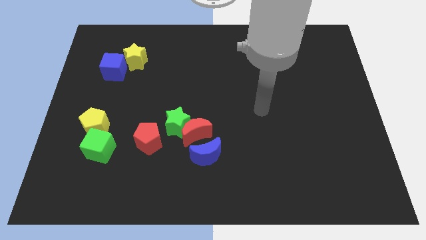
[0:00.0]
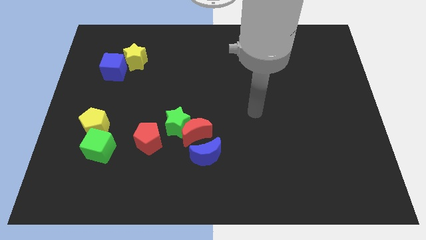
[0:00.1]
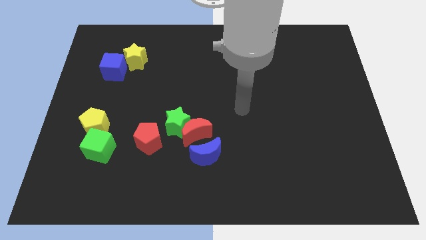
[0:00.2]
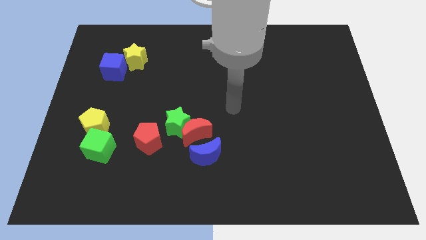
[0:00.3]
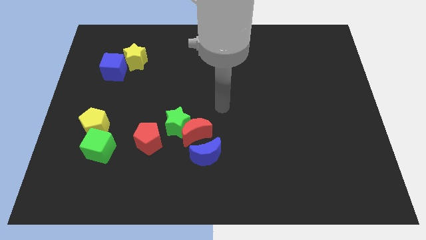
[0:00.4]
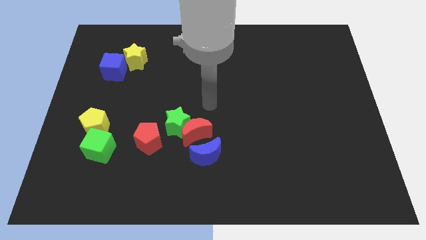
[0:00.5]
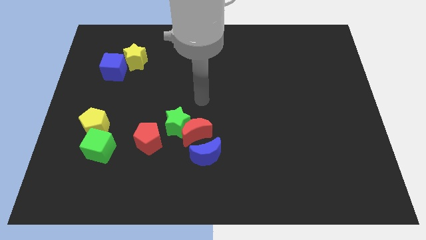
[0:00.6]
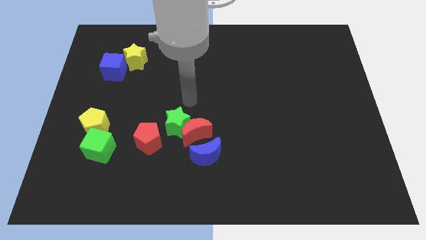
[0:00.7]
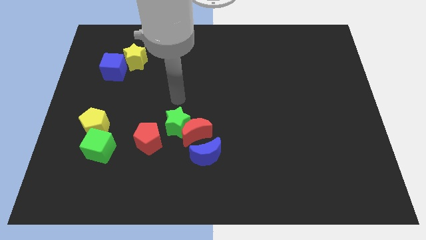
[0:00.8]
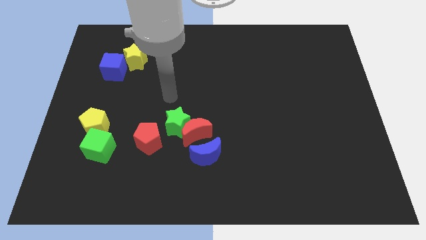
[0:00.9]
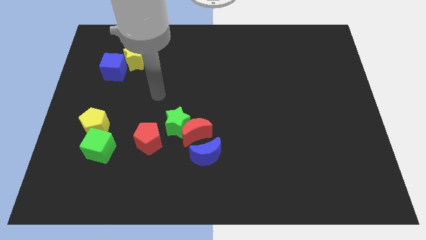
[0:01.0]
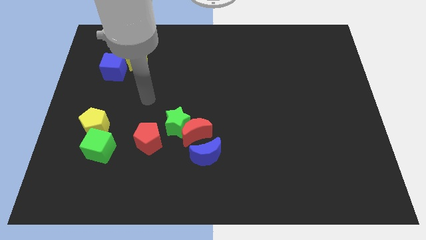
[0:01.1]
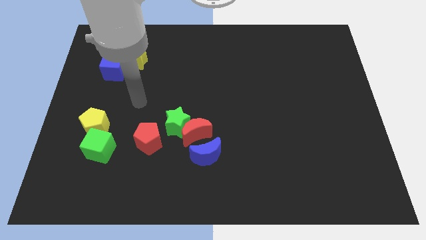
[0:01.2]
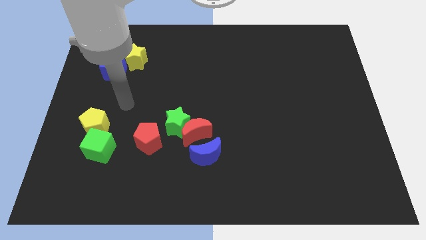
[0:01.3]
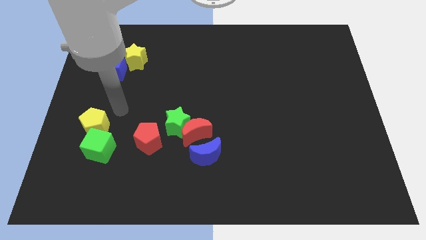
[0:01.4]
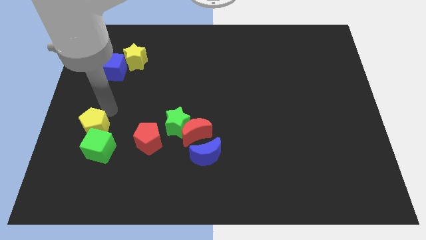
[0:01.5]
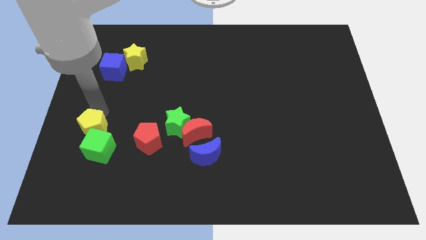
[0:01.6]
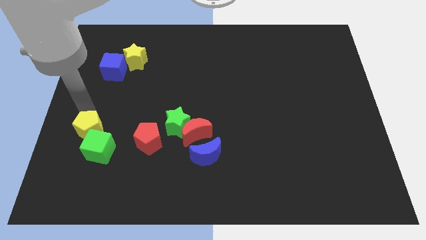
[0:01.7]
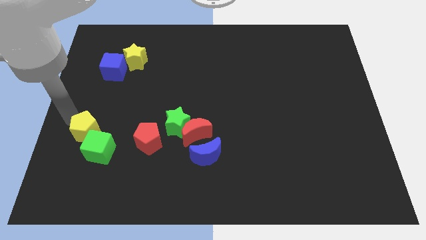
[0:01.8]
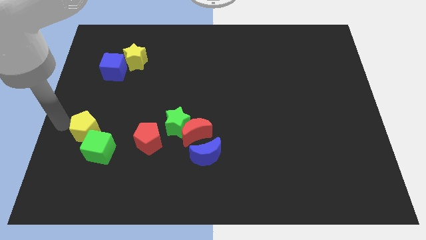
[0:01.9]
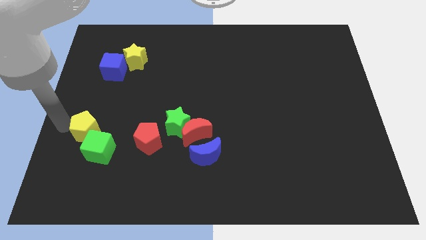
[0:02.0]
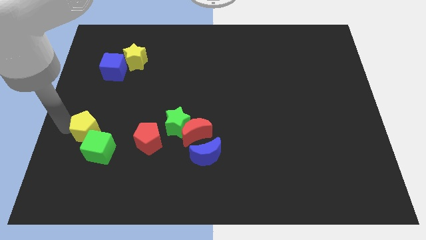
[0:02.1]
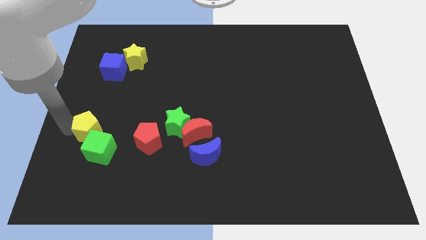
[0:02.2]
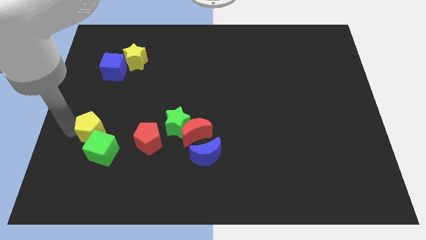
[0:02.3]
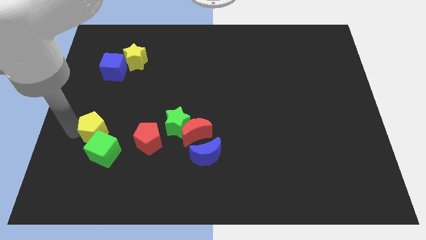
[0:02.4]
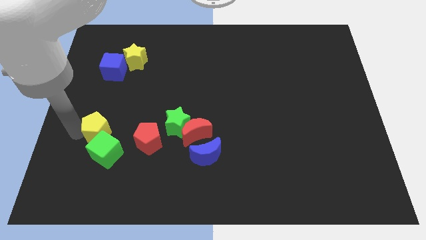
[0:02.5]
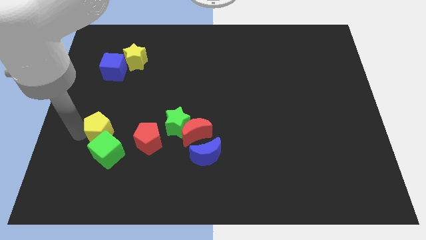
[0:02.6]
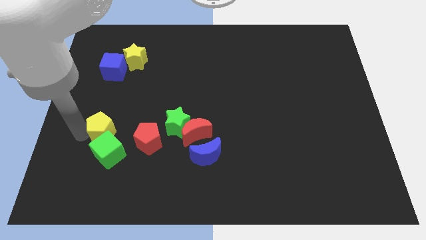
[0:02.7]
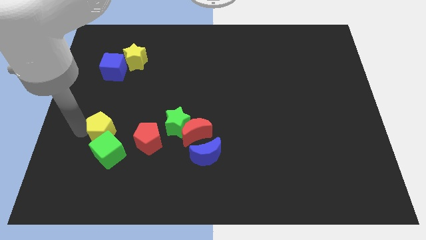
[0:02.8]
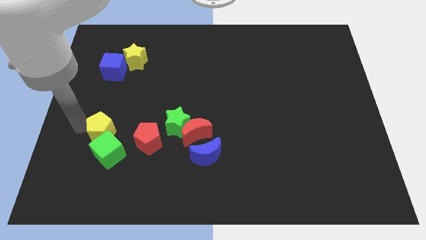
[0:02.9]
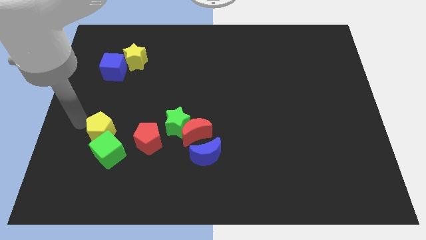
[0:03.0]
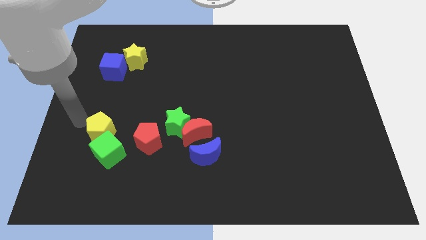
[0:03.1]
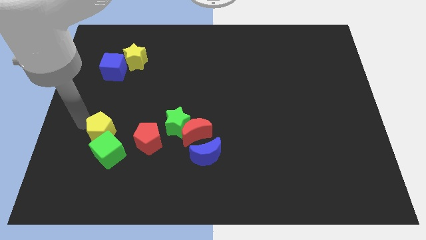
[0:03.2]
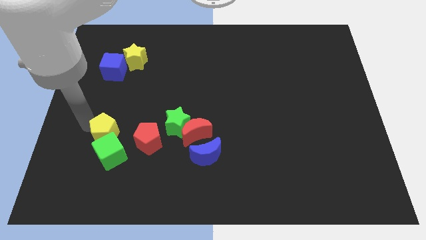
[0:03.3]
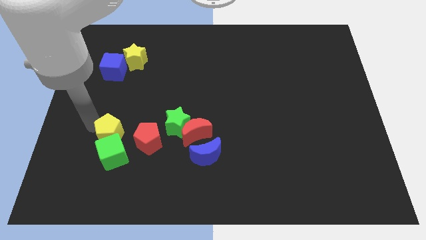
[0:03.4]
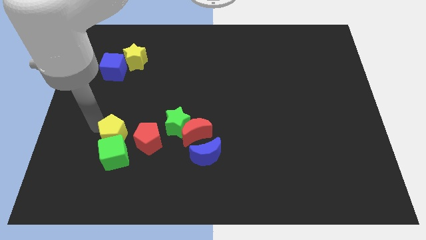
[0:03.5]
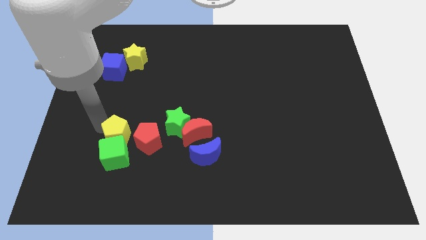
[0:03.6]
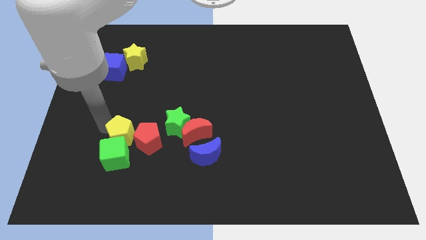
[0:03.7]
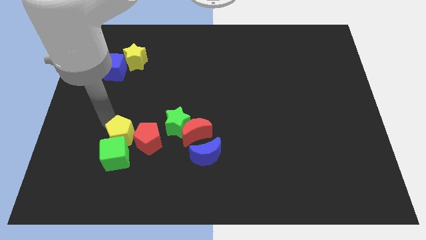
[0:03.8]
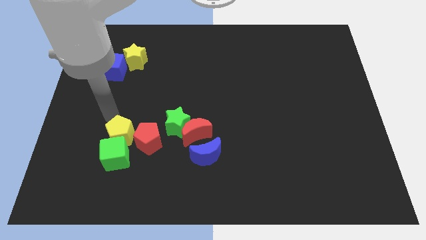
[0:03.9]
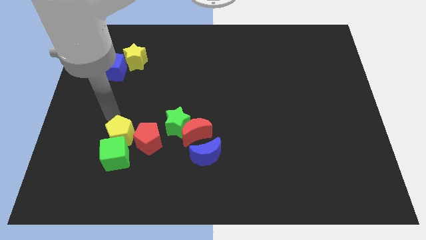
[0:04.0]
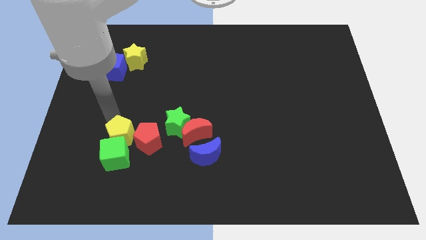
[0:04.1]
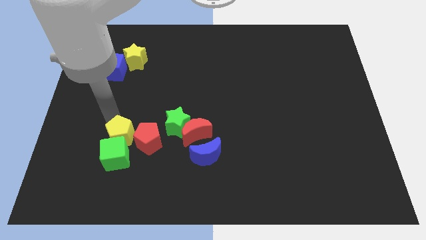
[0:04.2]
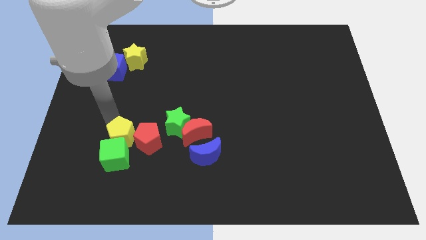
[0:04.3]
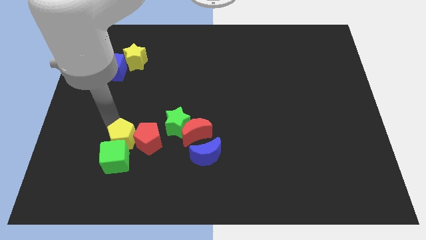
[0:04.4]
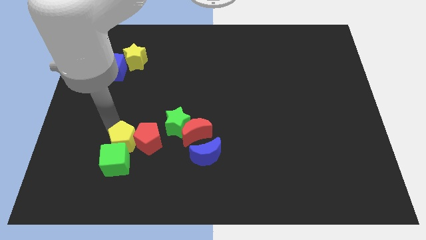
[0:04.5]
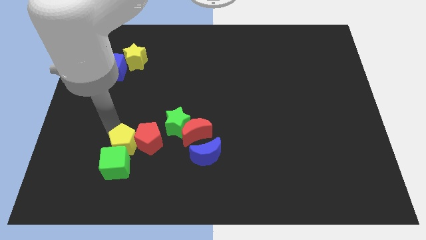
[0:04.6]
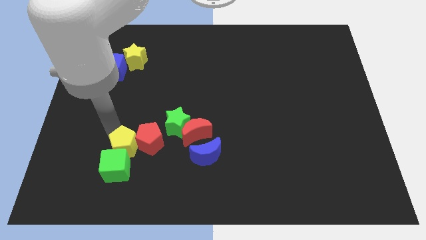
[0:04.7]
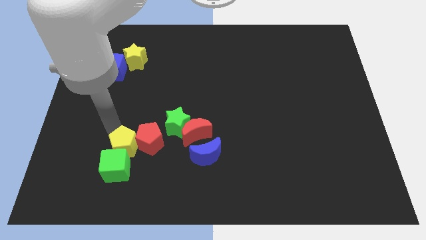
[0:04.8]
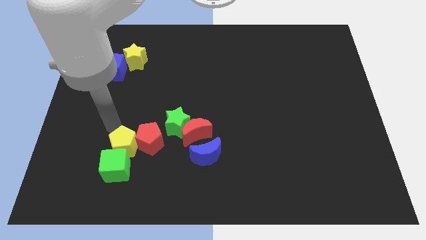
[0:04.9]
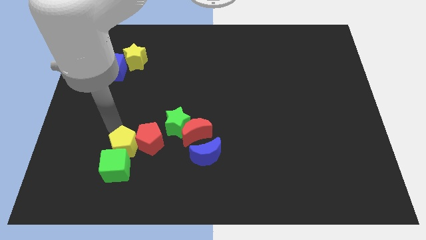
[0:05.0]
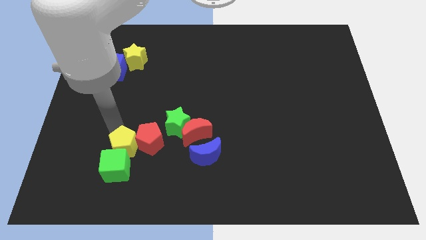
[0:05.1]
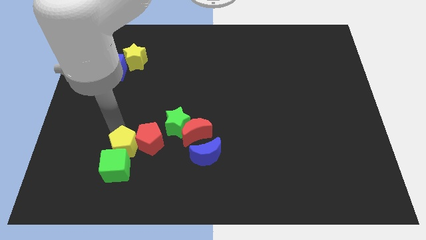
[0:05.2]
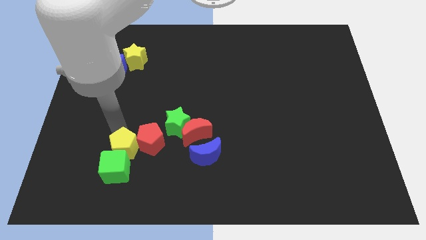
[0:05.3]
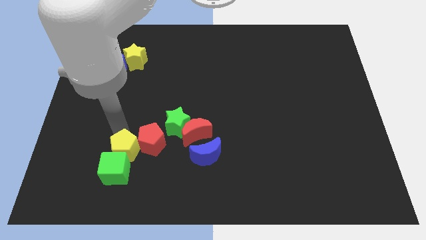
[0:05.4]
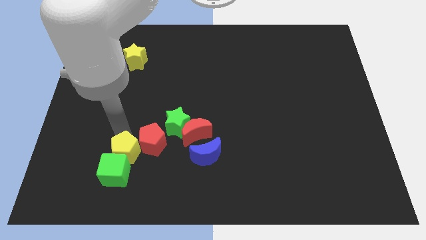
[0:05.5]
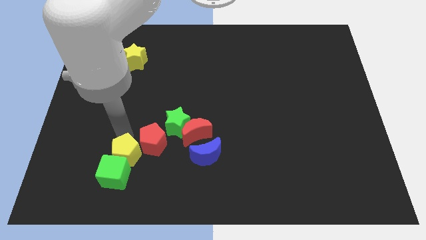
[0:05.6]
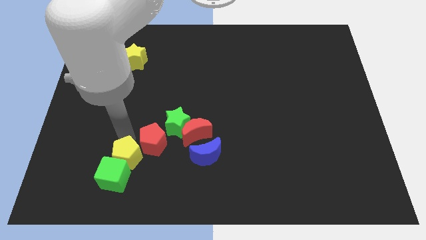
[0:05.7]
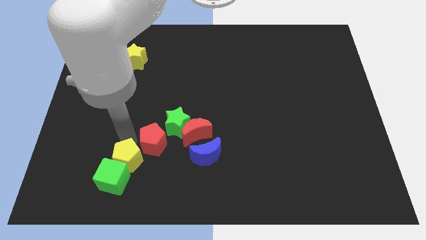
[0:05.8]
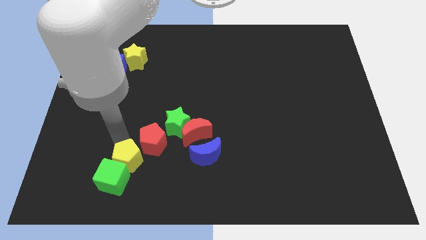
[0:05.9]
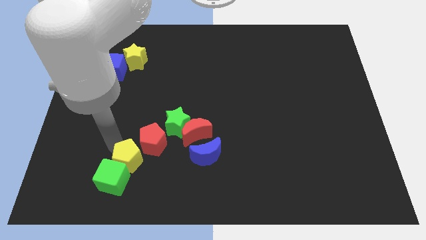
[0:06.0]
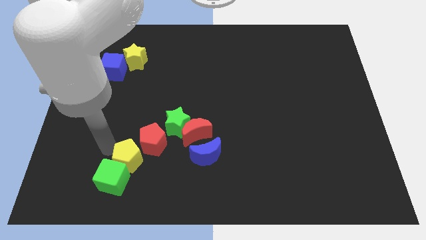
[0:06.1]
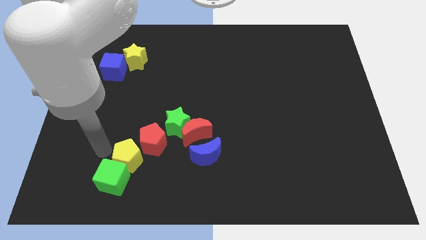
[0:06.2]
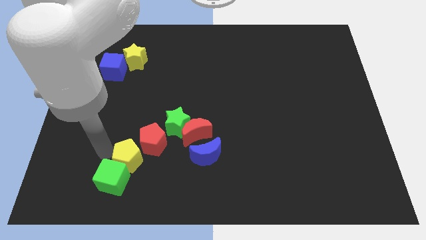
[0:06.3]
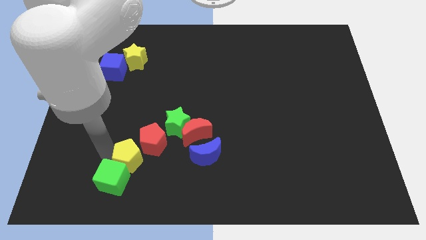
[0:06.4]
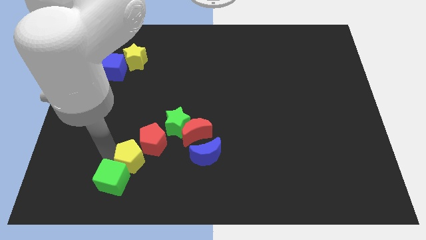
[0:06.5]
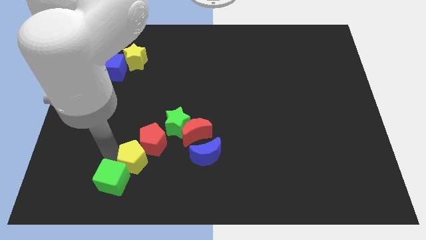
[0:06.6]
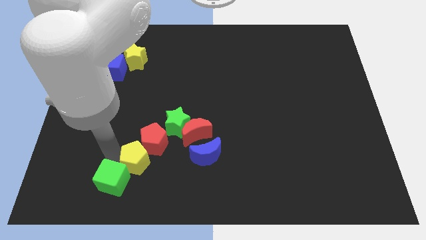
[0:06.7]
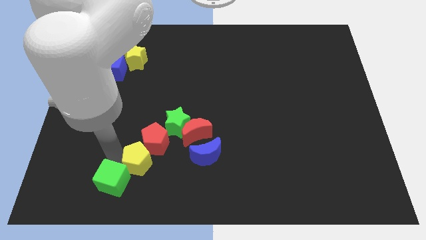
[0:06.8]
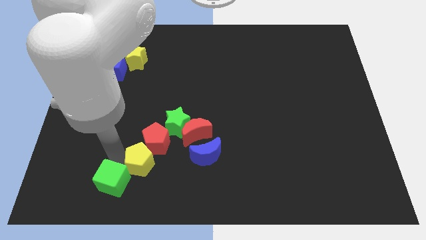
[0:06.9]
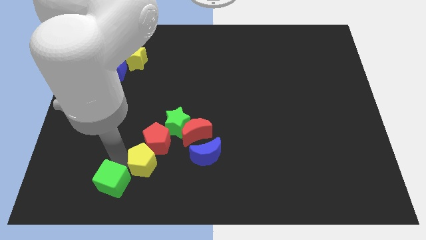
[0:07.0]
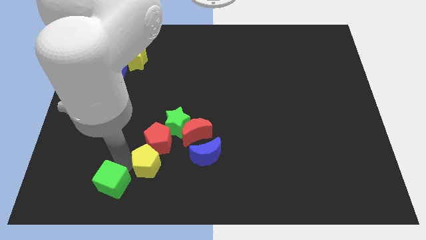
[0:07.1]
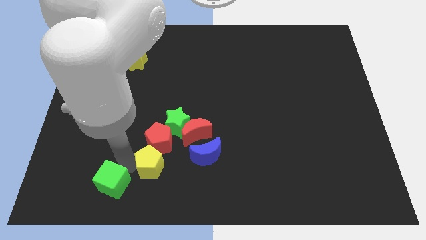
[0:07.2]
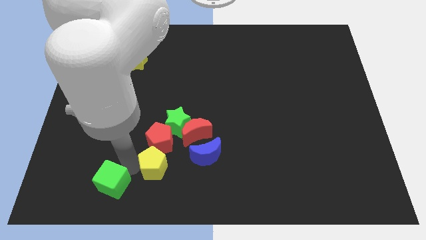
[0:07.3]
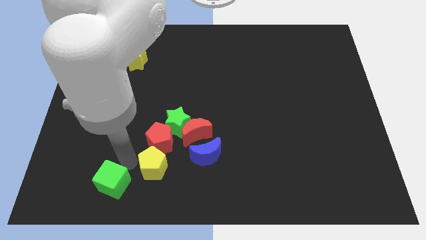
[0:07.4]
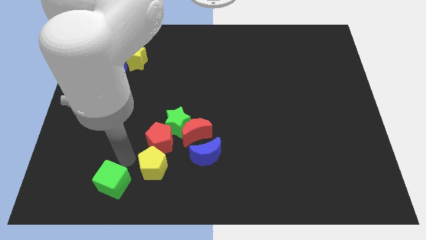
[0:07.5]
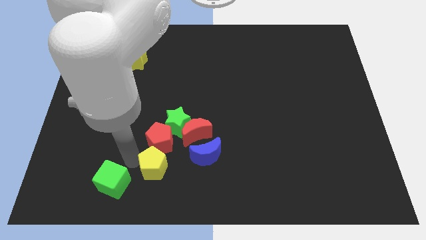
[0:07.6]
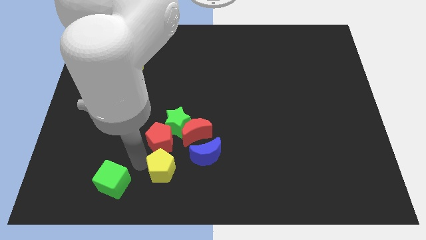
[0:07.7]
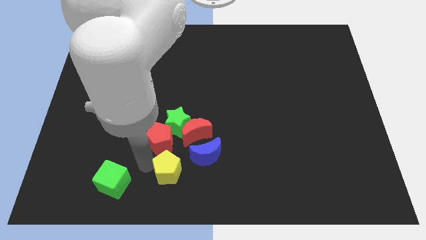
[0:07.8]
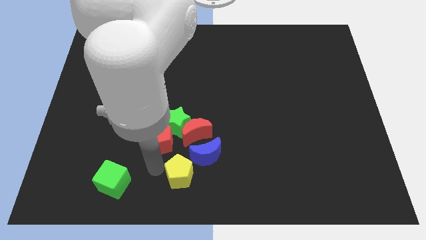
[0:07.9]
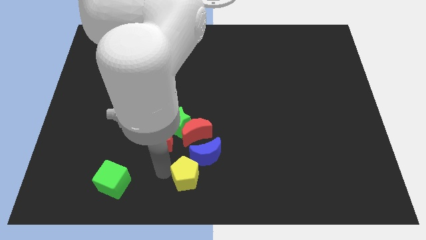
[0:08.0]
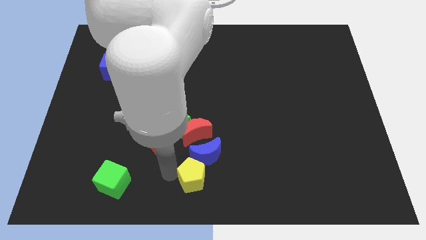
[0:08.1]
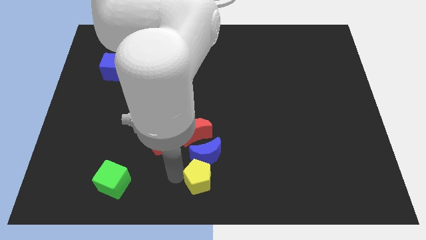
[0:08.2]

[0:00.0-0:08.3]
push the yellow pentagon to the bottom right side of the blue moon
